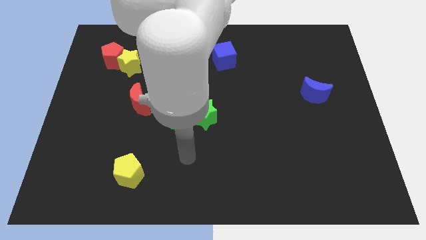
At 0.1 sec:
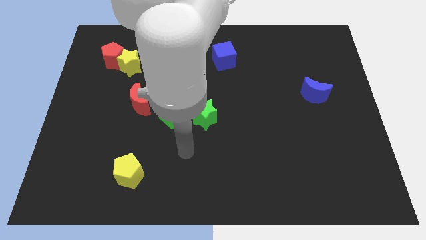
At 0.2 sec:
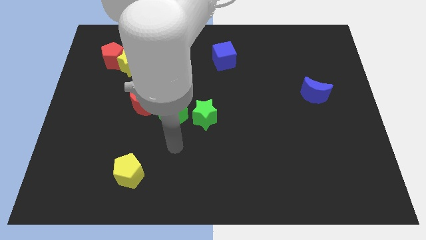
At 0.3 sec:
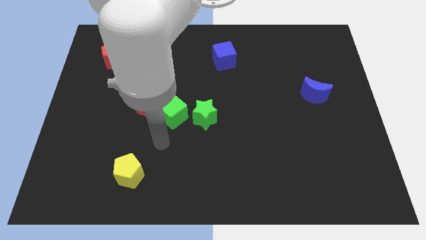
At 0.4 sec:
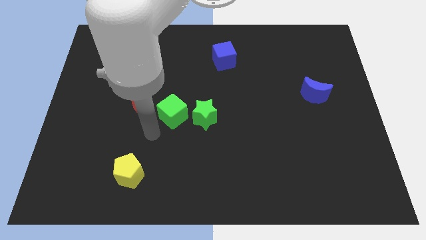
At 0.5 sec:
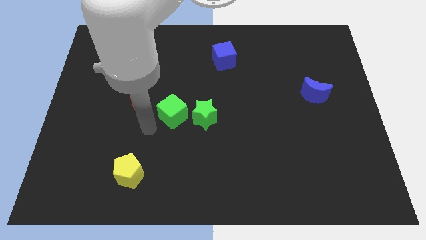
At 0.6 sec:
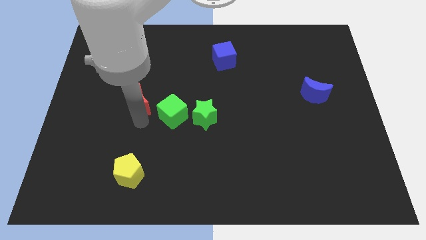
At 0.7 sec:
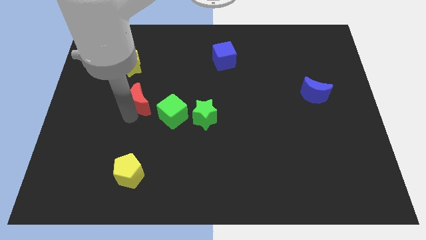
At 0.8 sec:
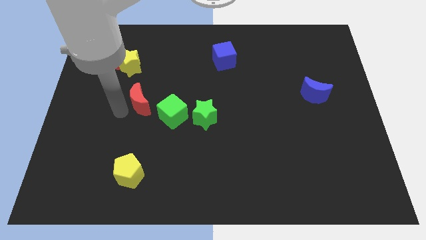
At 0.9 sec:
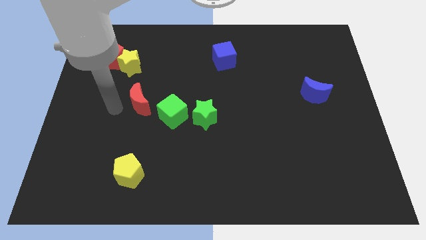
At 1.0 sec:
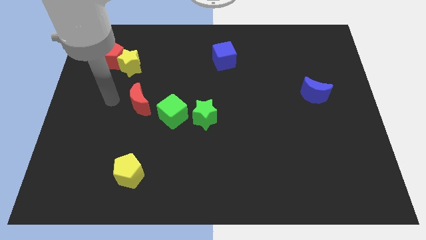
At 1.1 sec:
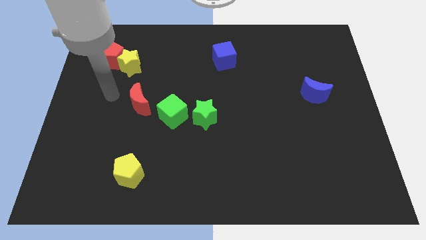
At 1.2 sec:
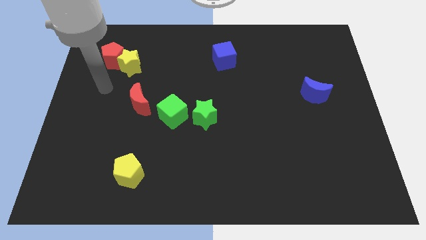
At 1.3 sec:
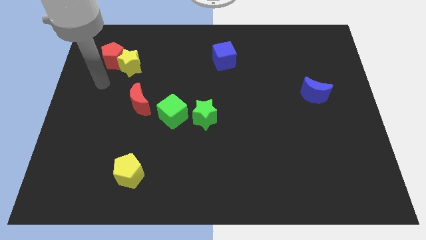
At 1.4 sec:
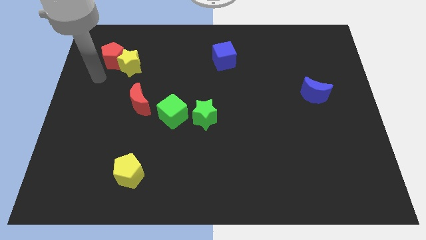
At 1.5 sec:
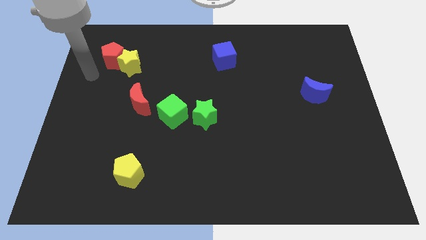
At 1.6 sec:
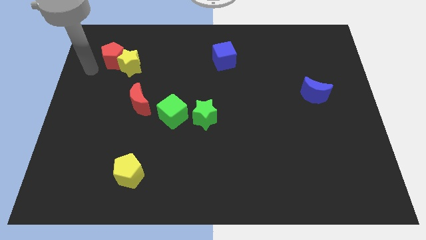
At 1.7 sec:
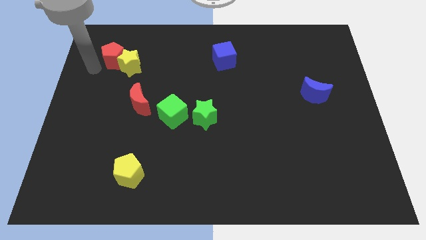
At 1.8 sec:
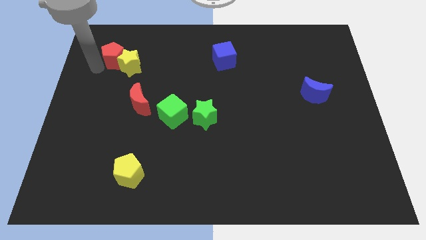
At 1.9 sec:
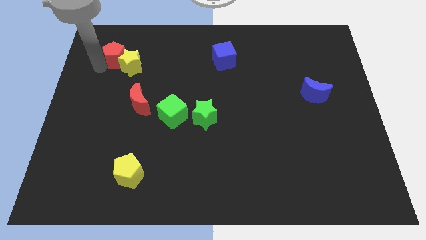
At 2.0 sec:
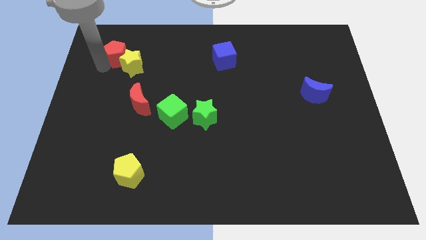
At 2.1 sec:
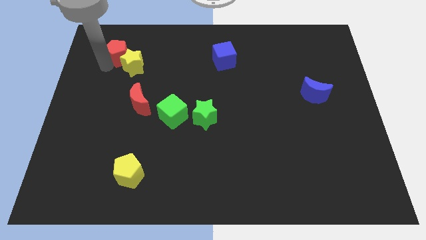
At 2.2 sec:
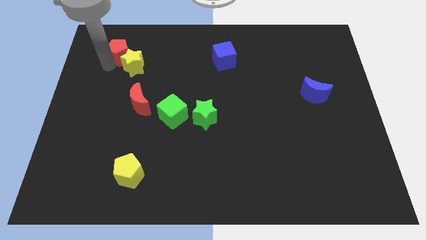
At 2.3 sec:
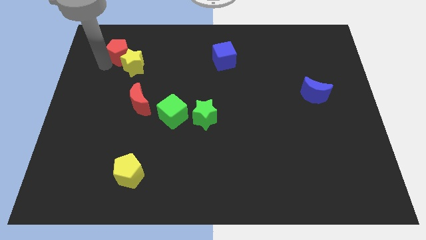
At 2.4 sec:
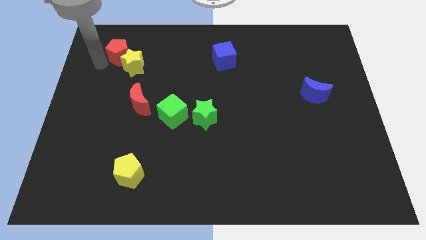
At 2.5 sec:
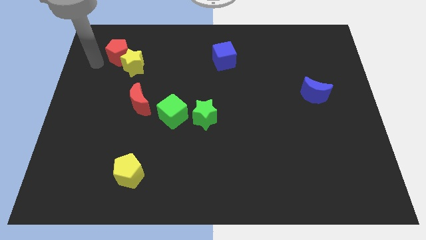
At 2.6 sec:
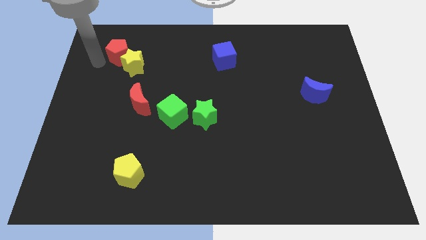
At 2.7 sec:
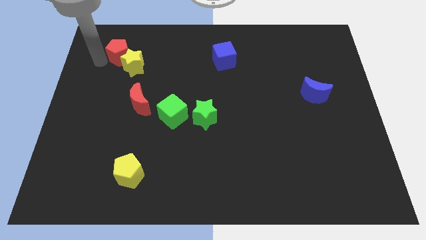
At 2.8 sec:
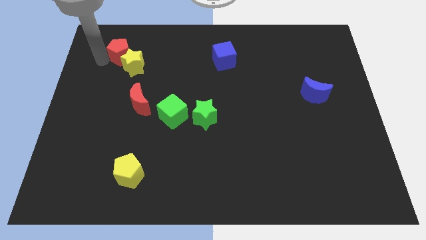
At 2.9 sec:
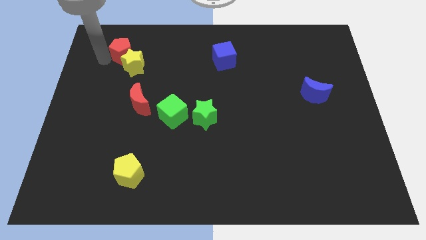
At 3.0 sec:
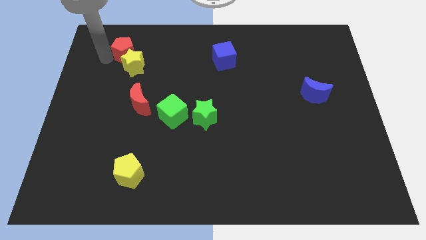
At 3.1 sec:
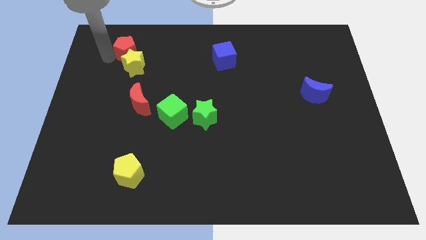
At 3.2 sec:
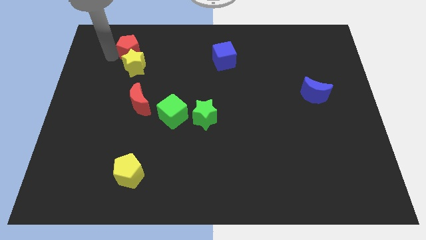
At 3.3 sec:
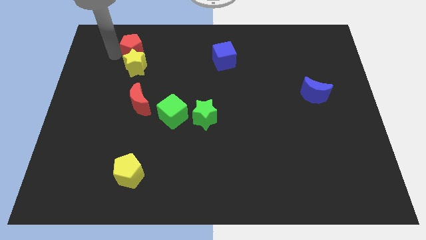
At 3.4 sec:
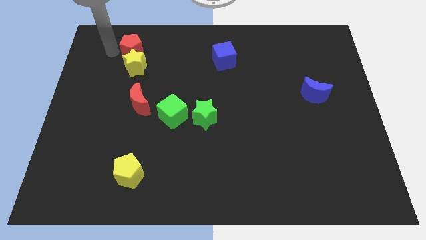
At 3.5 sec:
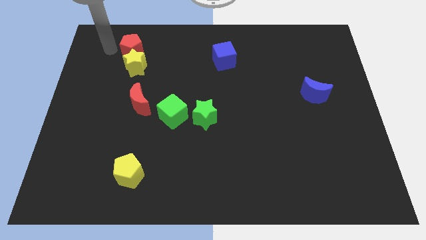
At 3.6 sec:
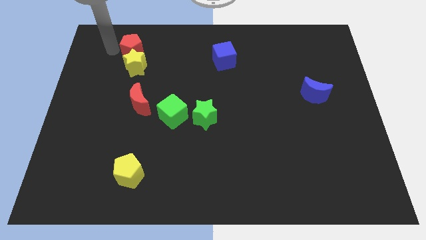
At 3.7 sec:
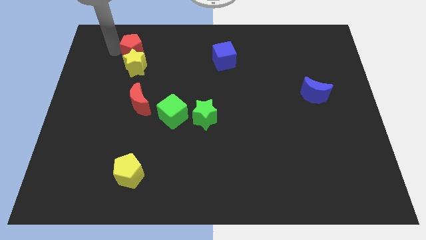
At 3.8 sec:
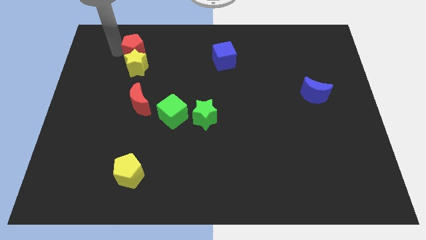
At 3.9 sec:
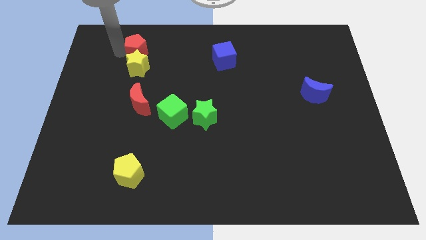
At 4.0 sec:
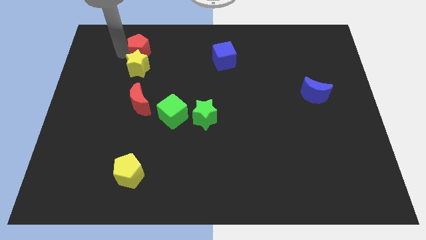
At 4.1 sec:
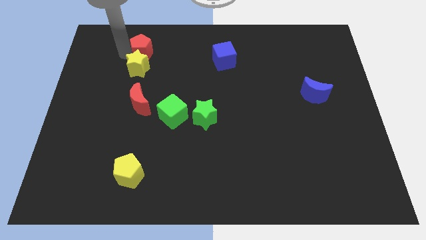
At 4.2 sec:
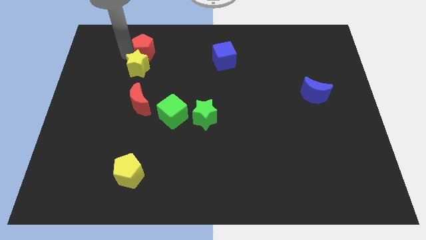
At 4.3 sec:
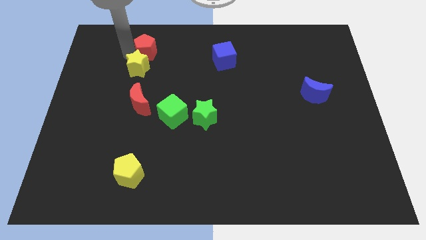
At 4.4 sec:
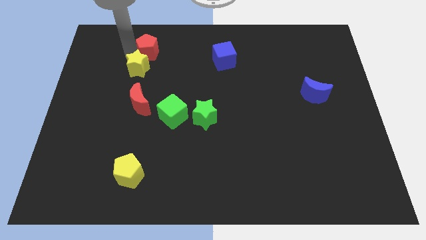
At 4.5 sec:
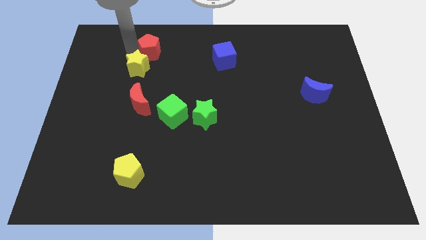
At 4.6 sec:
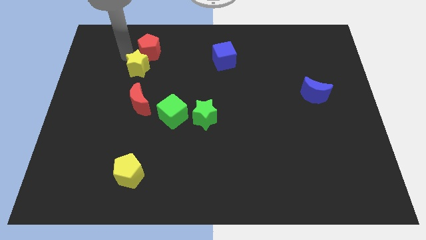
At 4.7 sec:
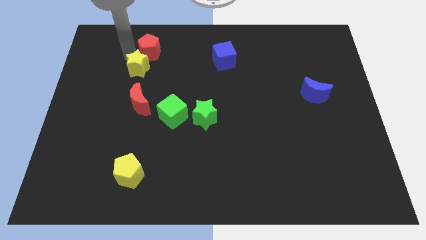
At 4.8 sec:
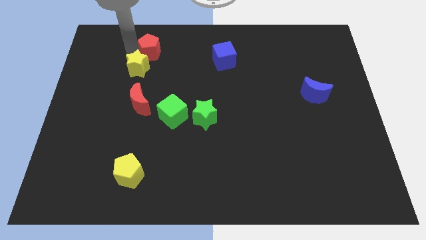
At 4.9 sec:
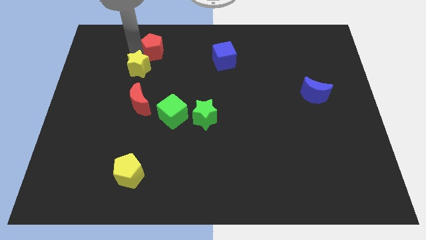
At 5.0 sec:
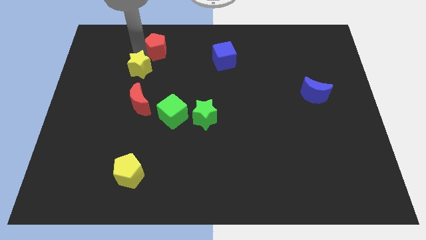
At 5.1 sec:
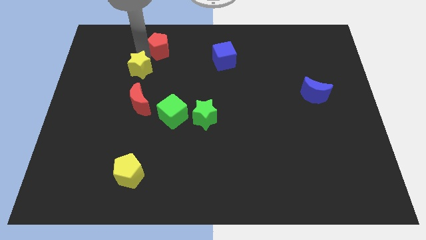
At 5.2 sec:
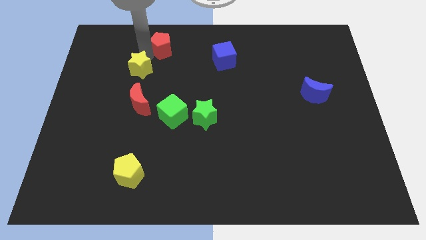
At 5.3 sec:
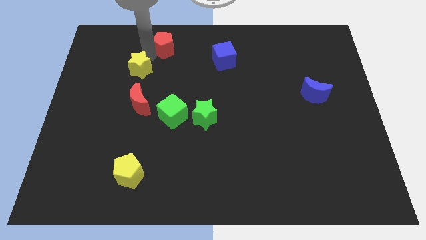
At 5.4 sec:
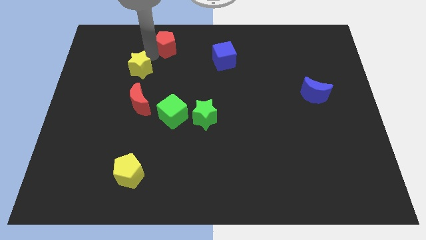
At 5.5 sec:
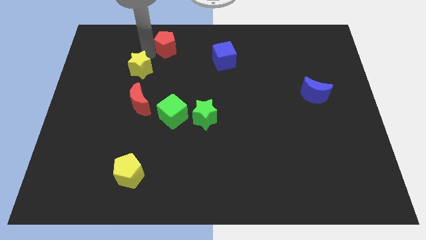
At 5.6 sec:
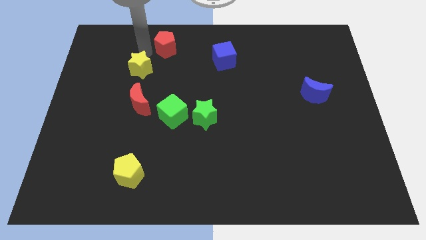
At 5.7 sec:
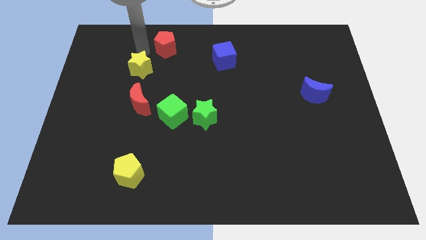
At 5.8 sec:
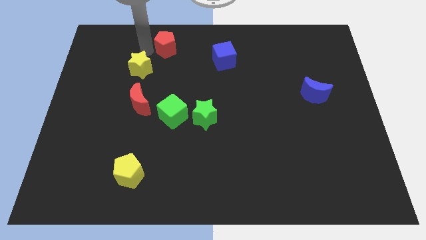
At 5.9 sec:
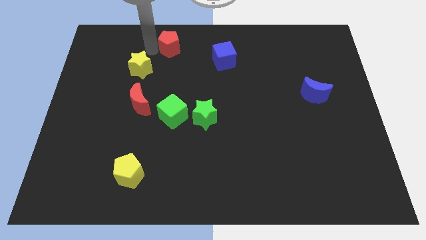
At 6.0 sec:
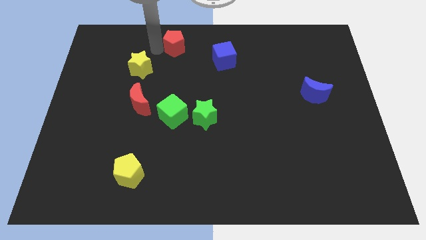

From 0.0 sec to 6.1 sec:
put the red pentagon to the towards your base

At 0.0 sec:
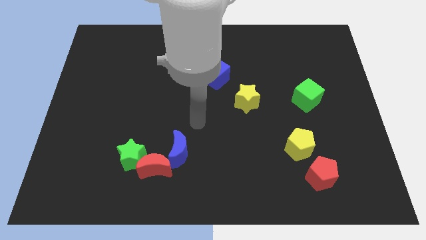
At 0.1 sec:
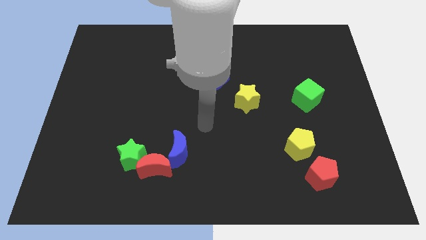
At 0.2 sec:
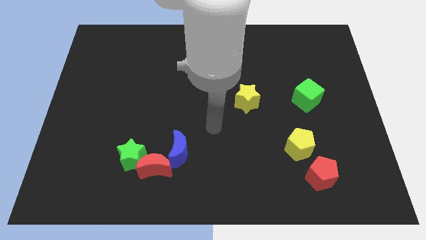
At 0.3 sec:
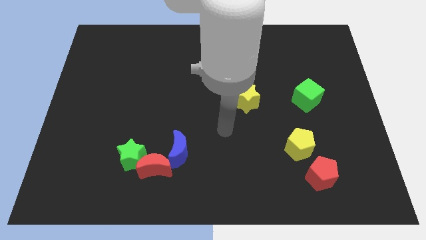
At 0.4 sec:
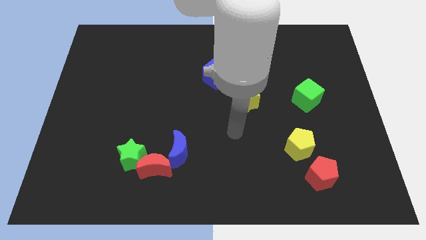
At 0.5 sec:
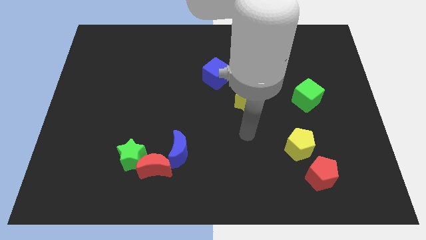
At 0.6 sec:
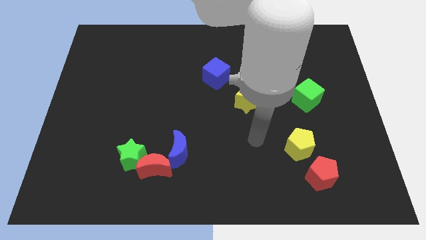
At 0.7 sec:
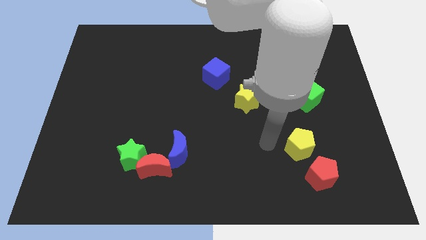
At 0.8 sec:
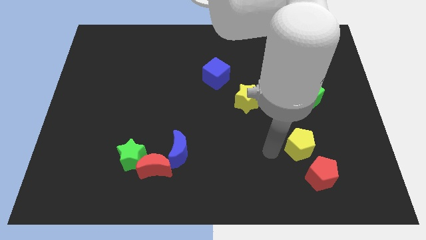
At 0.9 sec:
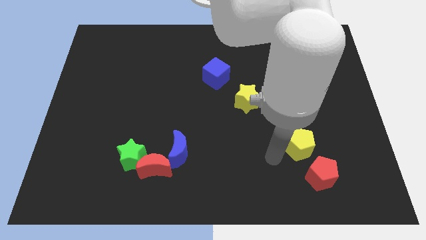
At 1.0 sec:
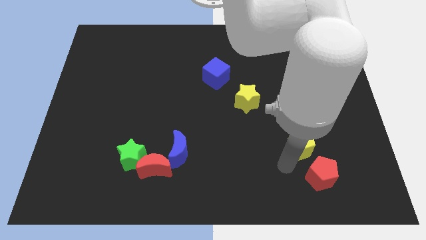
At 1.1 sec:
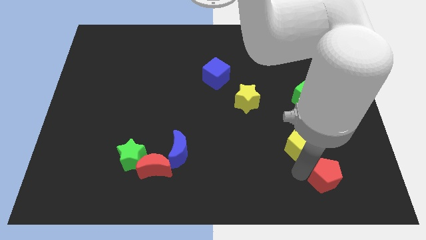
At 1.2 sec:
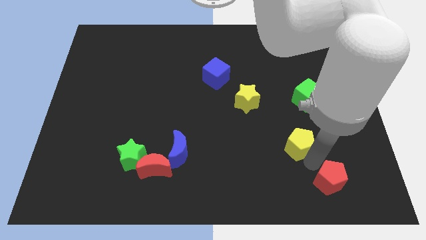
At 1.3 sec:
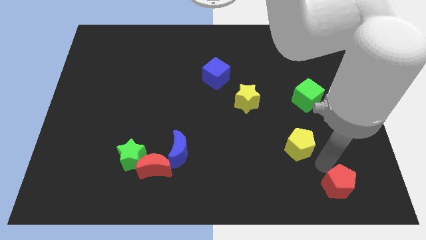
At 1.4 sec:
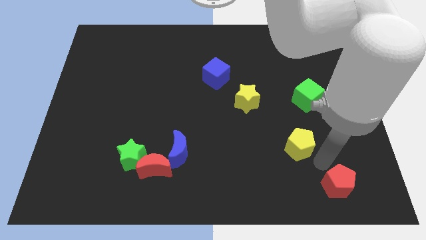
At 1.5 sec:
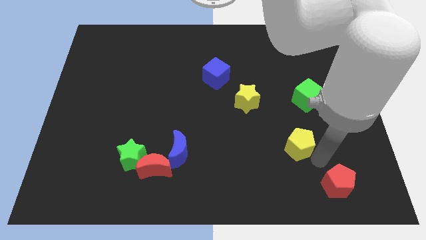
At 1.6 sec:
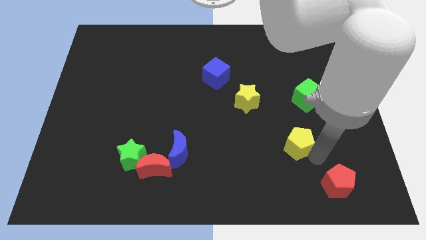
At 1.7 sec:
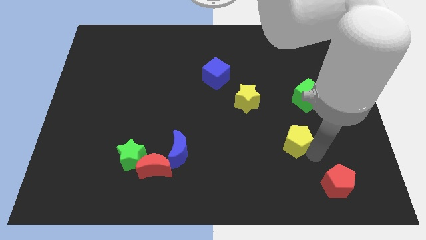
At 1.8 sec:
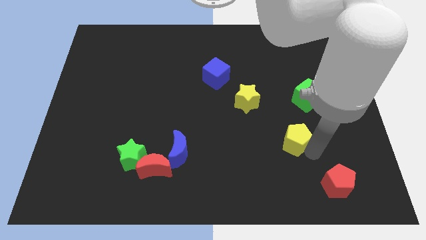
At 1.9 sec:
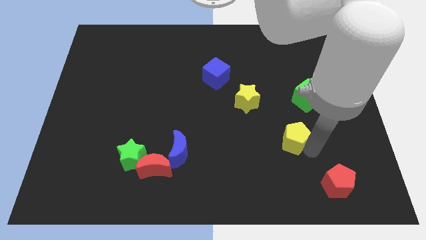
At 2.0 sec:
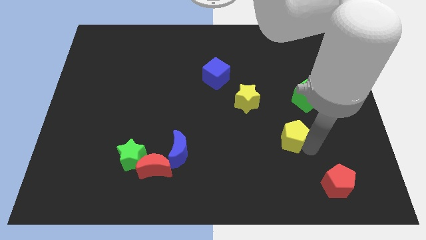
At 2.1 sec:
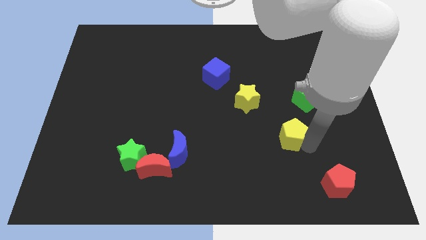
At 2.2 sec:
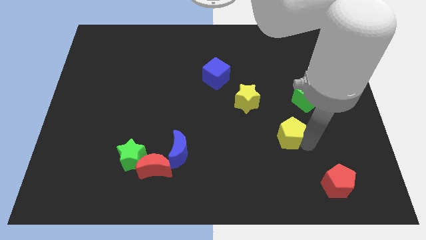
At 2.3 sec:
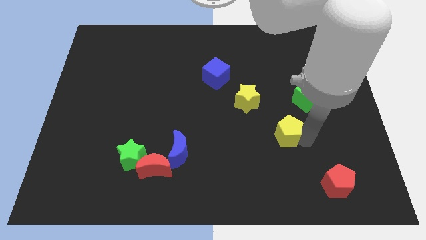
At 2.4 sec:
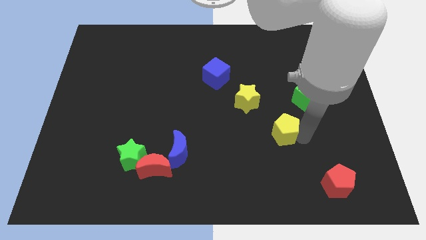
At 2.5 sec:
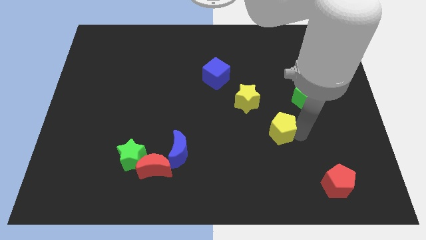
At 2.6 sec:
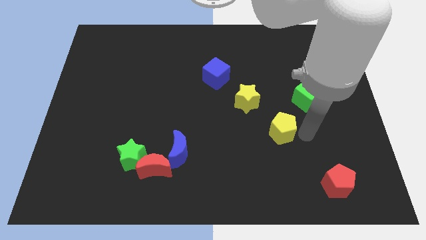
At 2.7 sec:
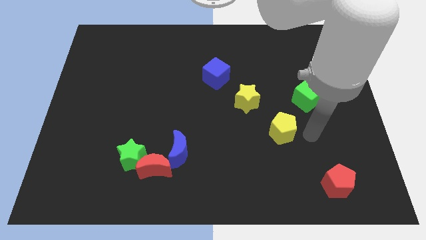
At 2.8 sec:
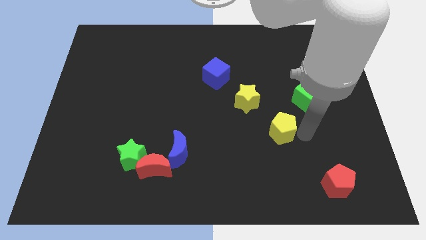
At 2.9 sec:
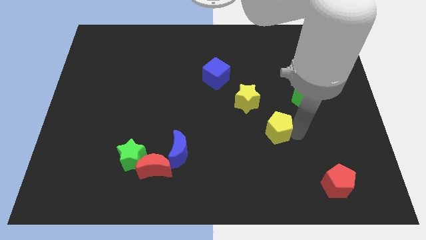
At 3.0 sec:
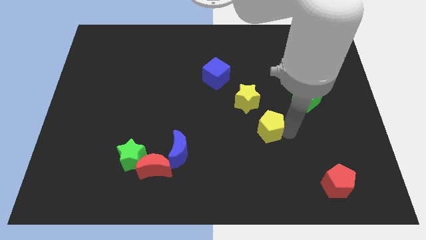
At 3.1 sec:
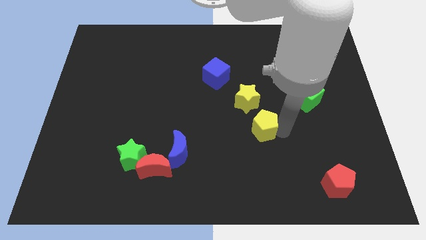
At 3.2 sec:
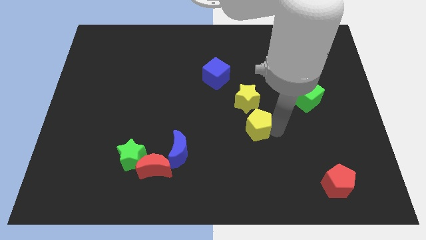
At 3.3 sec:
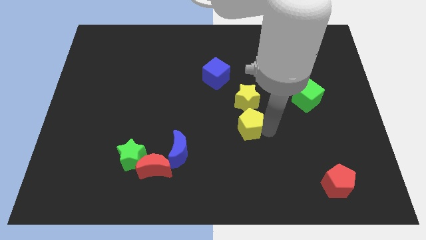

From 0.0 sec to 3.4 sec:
slide the yellow pentagon to the center of the board
